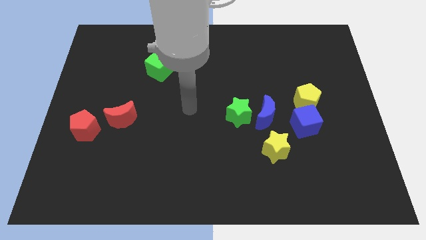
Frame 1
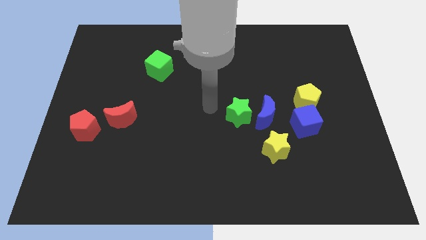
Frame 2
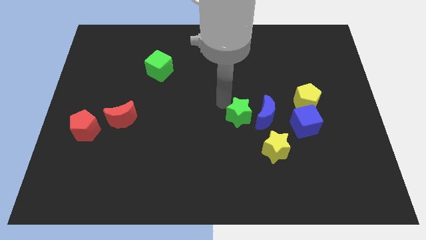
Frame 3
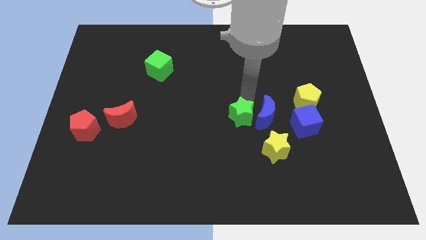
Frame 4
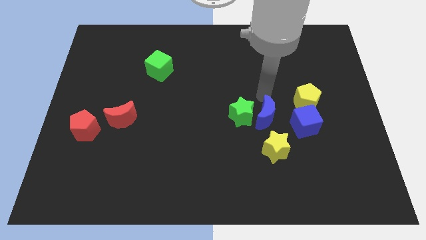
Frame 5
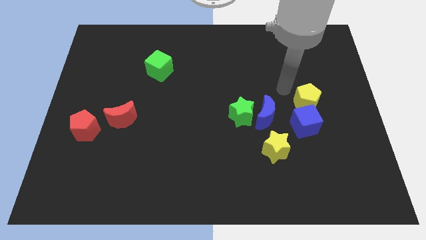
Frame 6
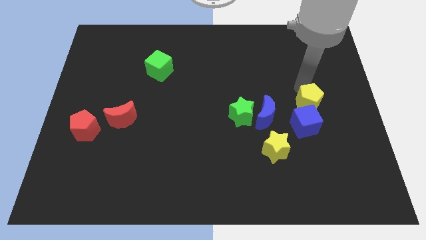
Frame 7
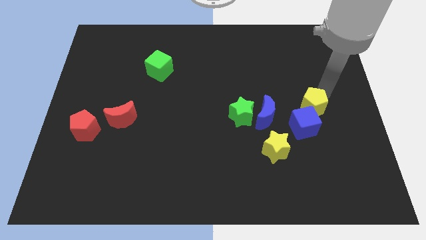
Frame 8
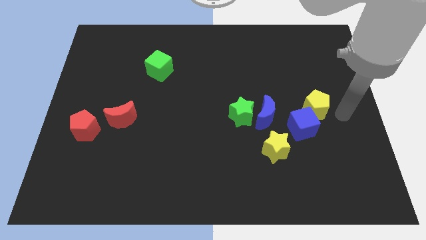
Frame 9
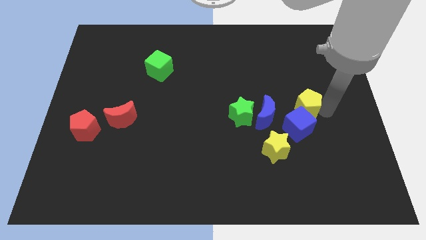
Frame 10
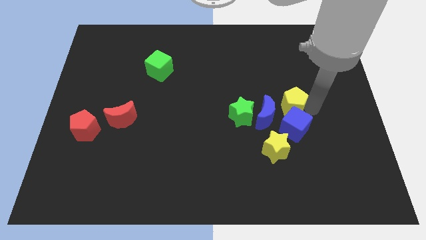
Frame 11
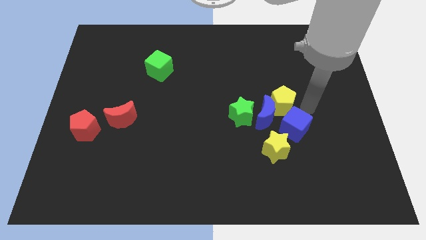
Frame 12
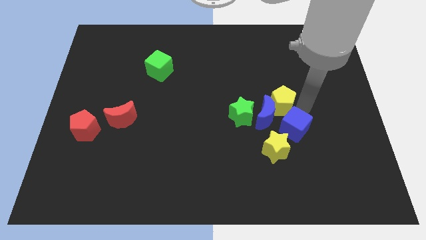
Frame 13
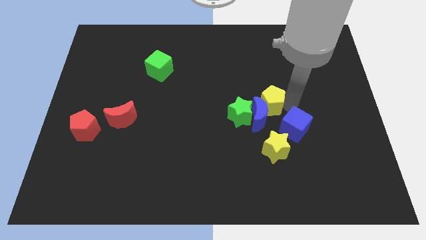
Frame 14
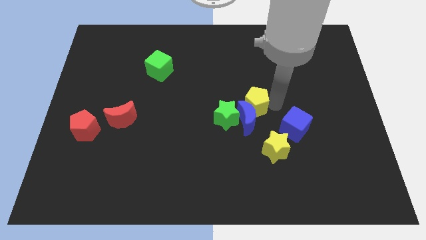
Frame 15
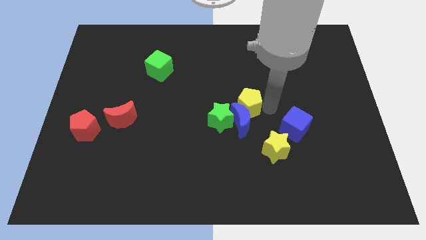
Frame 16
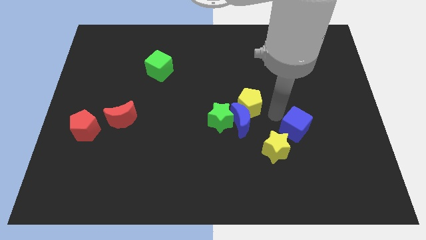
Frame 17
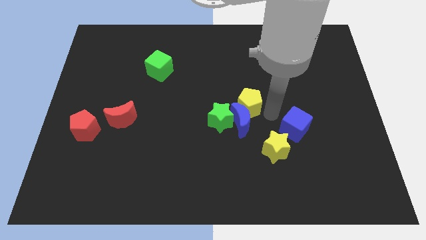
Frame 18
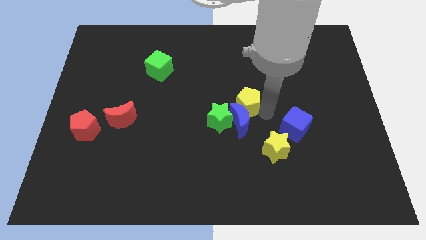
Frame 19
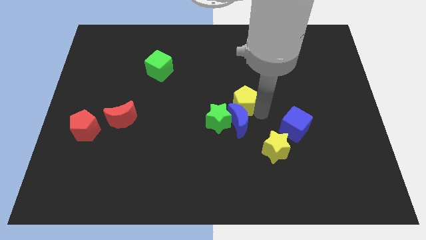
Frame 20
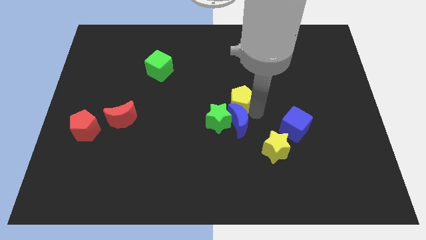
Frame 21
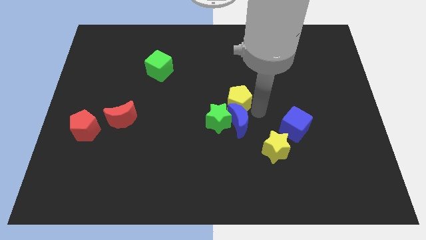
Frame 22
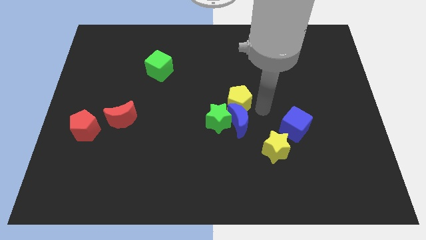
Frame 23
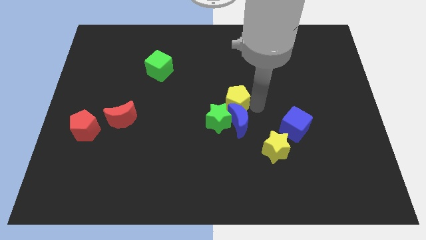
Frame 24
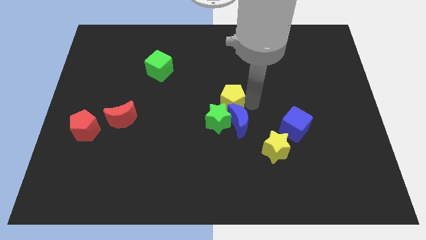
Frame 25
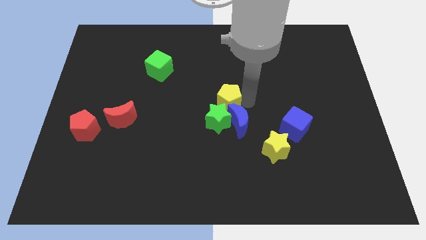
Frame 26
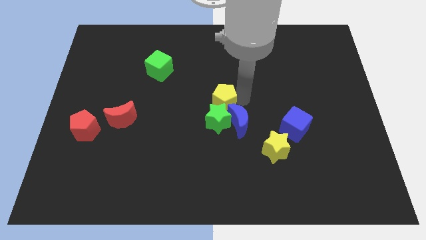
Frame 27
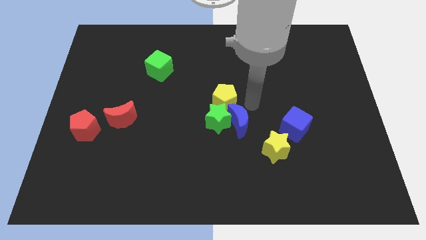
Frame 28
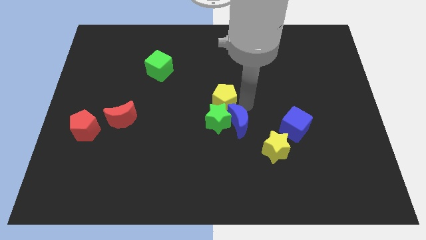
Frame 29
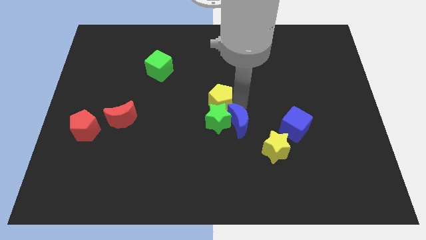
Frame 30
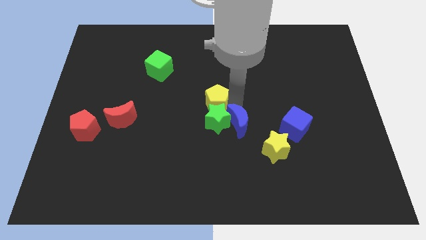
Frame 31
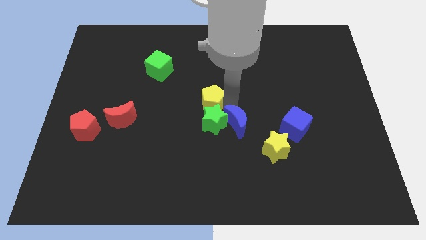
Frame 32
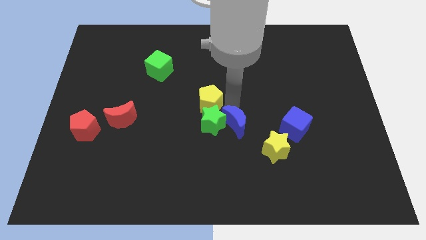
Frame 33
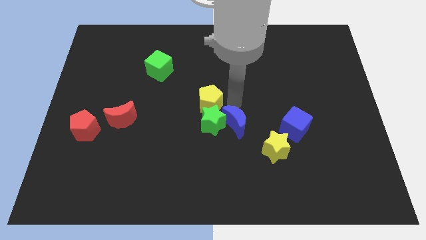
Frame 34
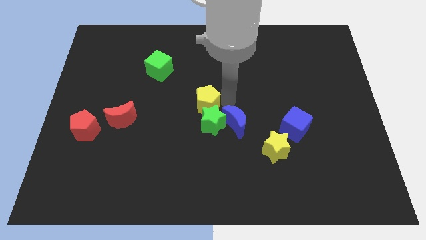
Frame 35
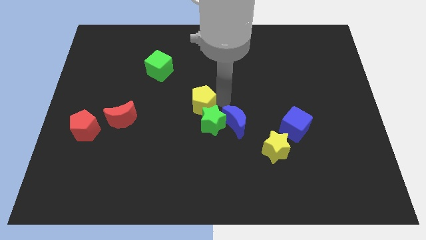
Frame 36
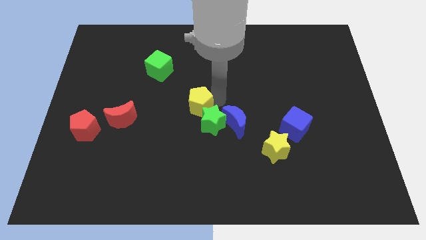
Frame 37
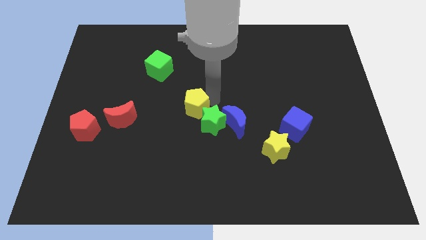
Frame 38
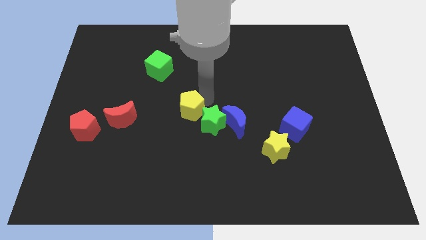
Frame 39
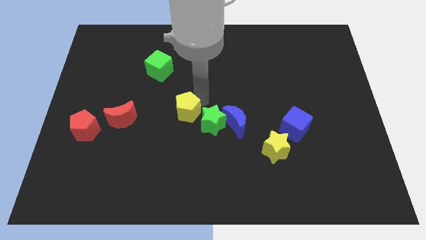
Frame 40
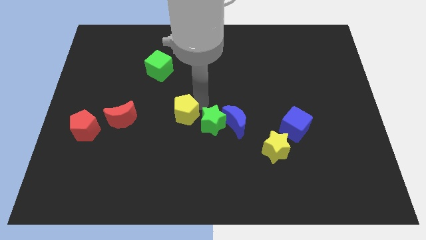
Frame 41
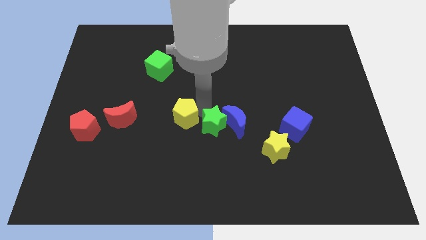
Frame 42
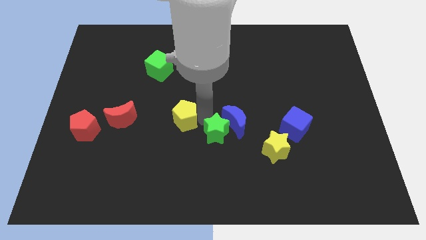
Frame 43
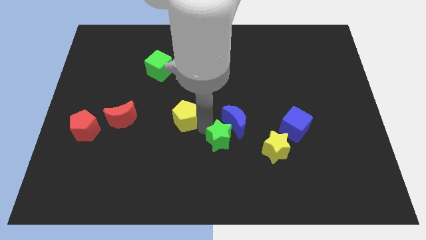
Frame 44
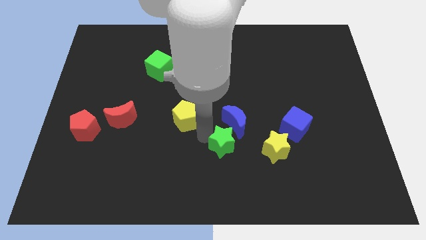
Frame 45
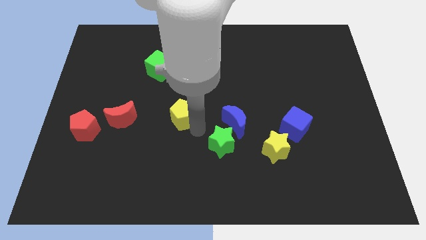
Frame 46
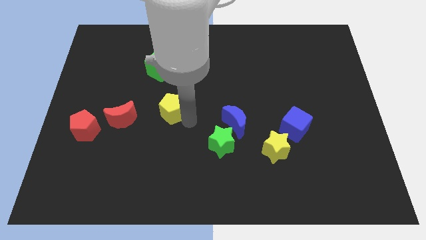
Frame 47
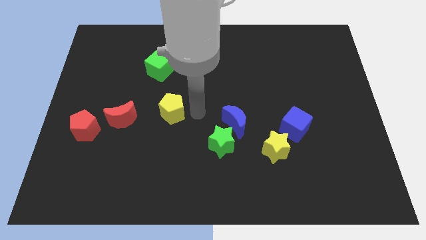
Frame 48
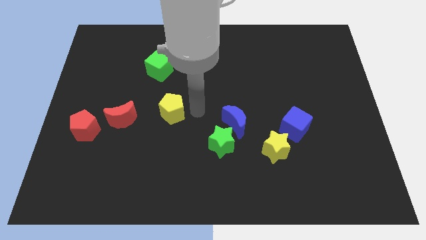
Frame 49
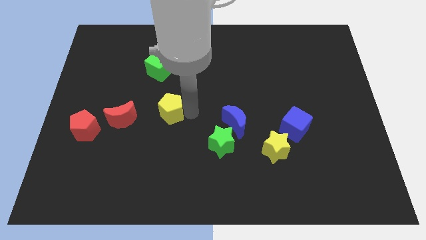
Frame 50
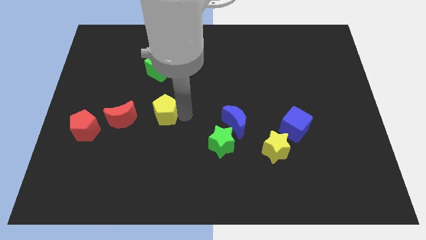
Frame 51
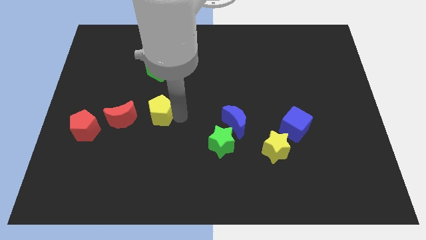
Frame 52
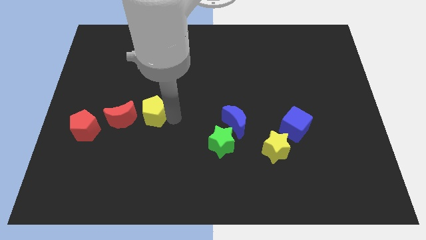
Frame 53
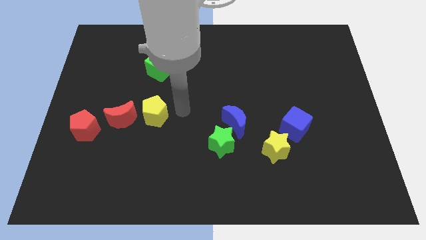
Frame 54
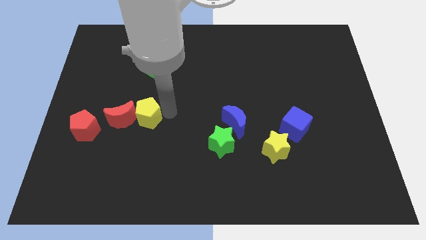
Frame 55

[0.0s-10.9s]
move the yellow pentagon next to the red moon

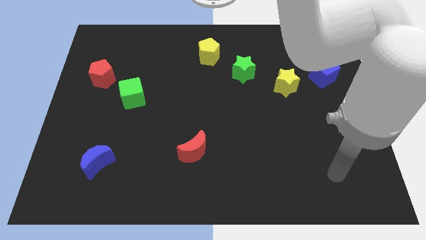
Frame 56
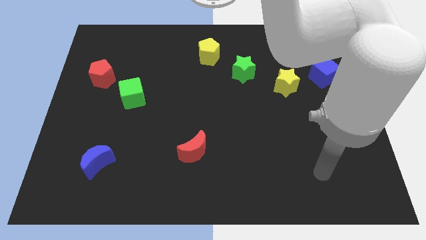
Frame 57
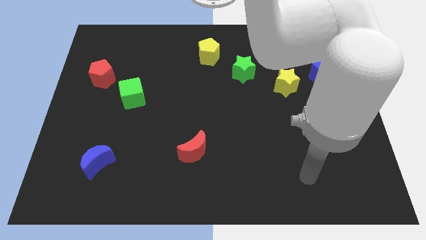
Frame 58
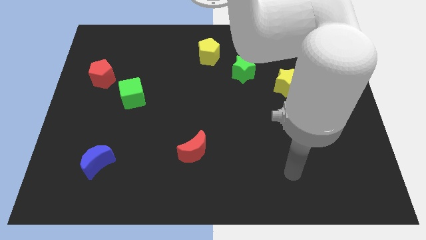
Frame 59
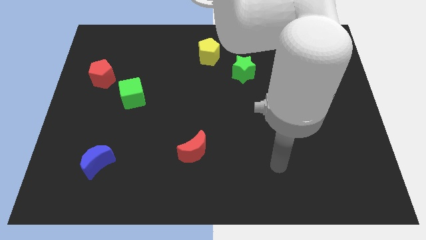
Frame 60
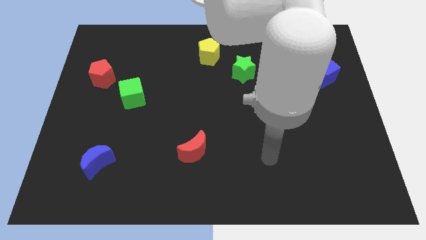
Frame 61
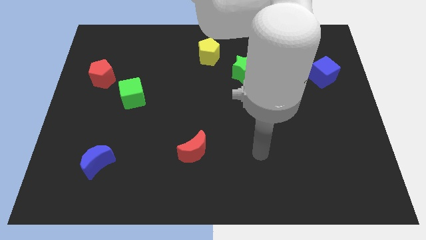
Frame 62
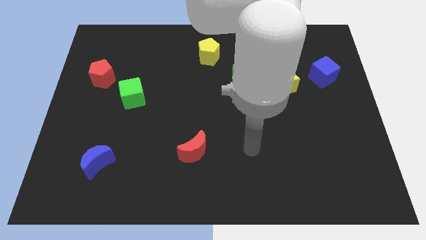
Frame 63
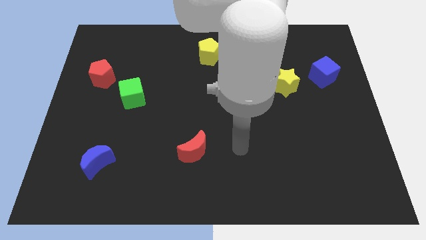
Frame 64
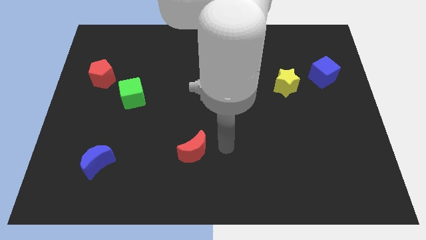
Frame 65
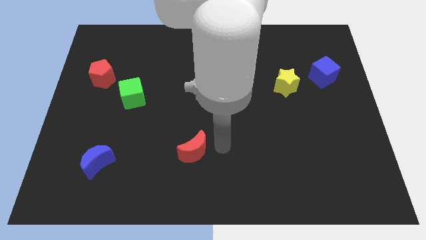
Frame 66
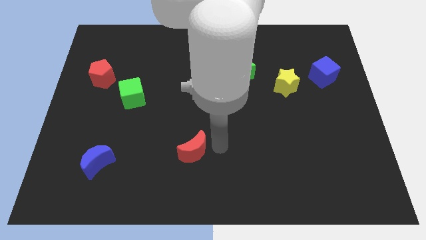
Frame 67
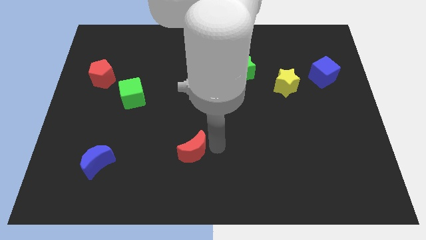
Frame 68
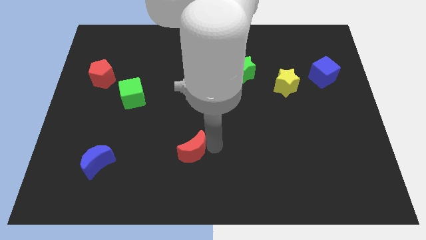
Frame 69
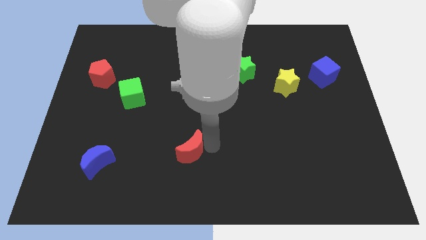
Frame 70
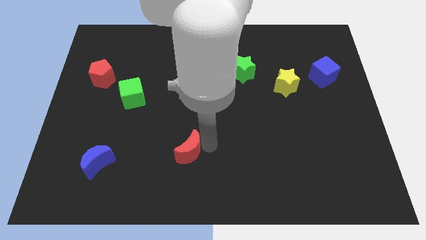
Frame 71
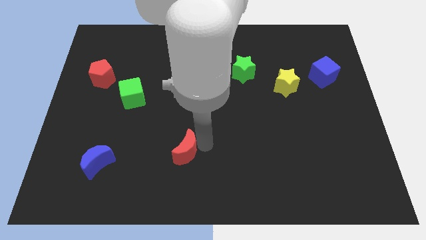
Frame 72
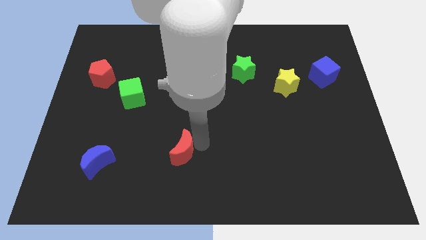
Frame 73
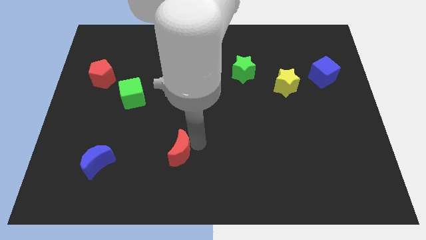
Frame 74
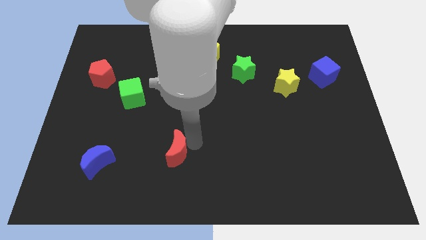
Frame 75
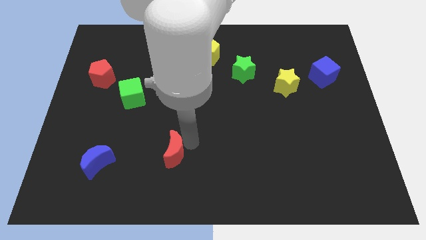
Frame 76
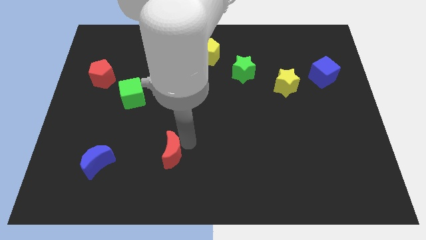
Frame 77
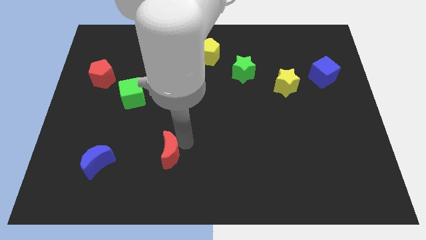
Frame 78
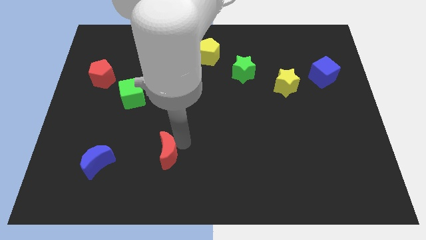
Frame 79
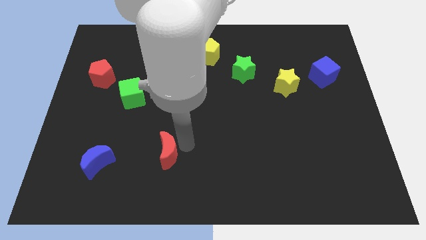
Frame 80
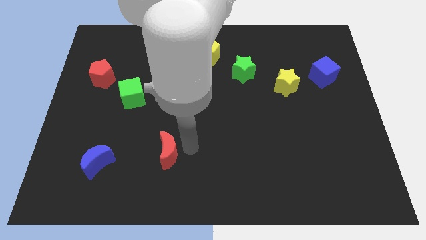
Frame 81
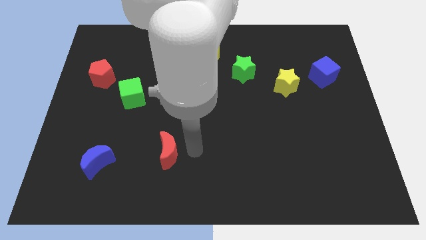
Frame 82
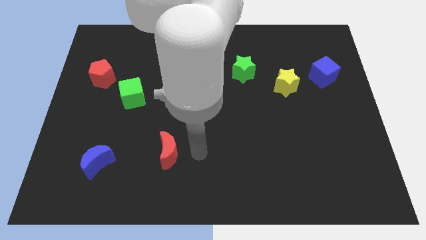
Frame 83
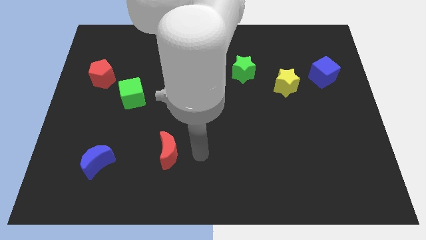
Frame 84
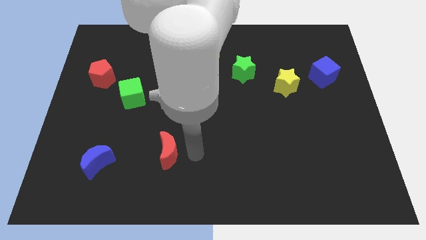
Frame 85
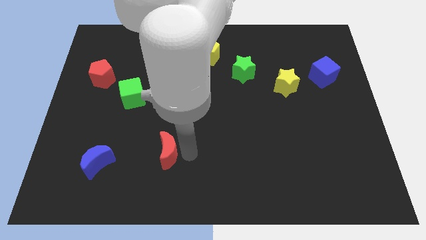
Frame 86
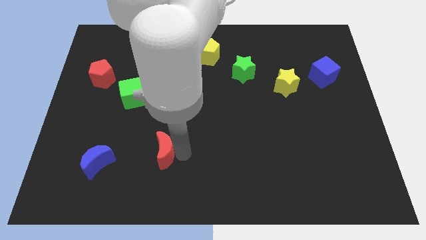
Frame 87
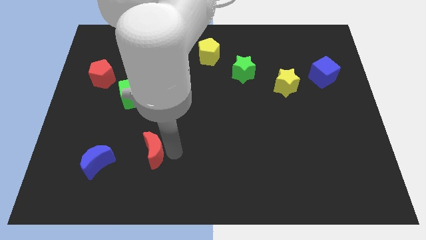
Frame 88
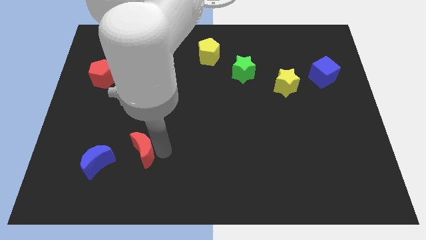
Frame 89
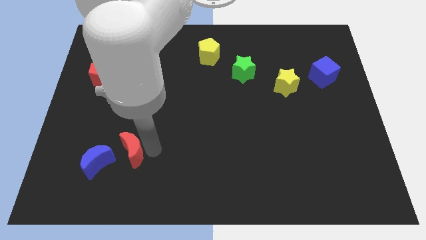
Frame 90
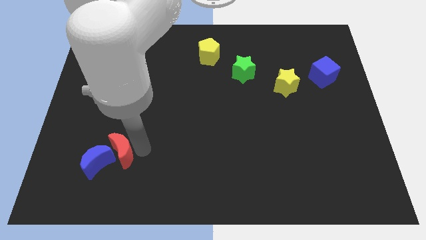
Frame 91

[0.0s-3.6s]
slide the red moon towards the blue moon
